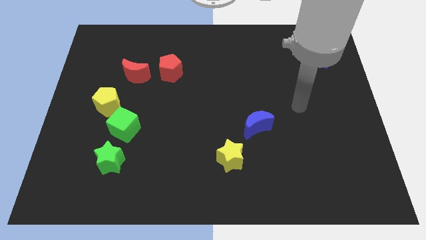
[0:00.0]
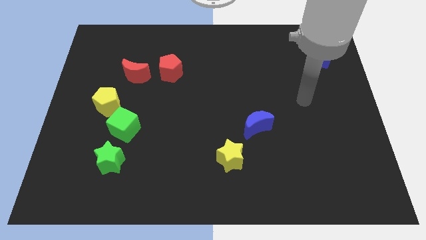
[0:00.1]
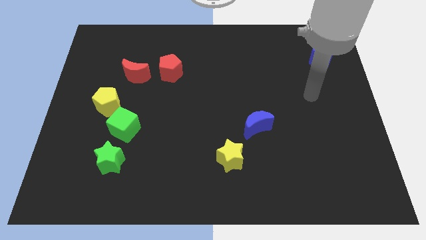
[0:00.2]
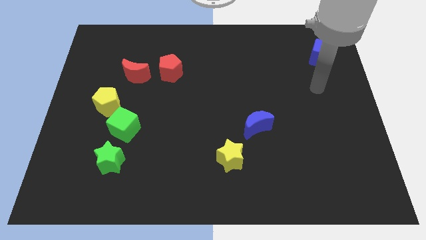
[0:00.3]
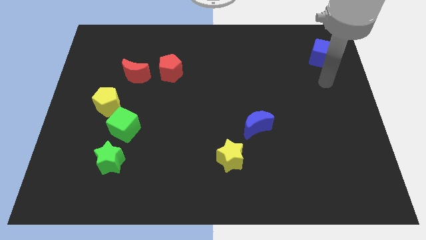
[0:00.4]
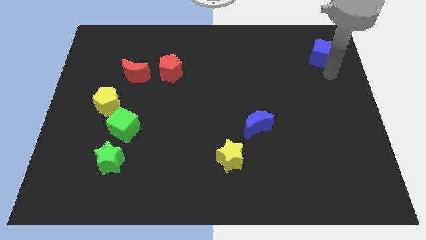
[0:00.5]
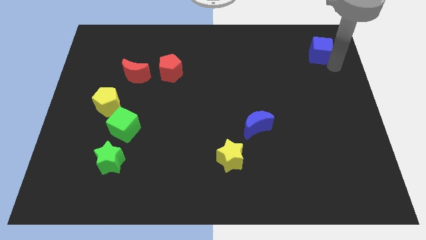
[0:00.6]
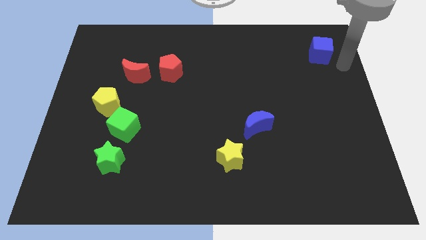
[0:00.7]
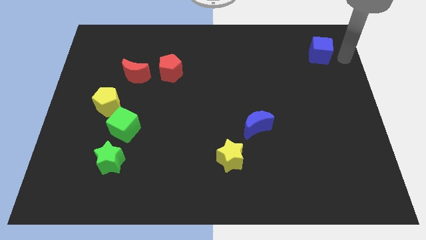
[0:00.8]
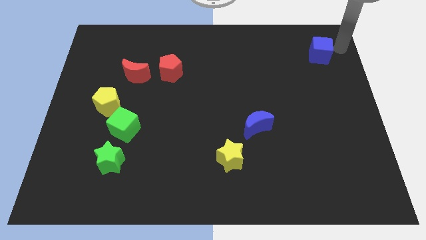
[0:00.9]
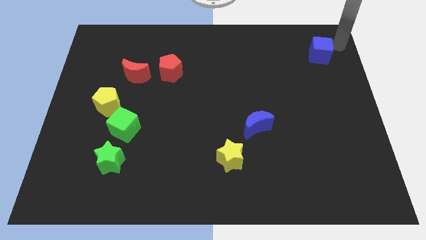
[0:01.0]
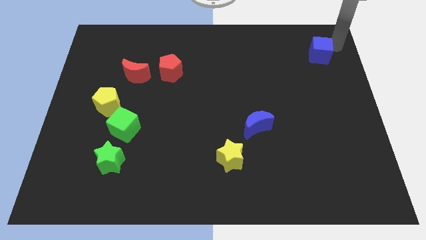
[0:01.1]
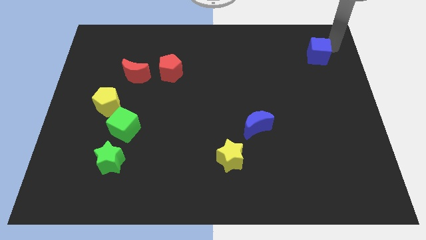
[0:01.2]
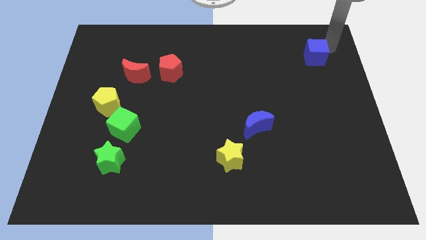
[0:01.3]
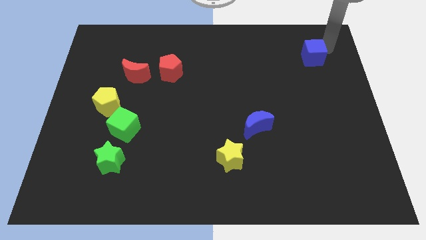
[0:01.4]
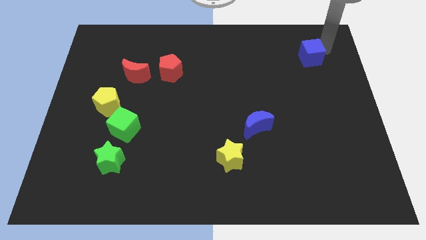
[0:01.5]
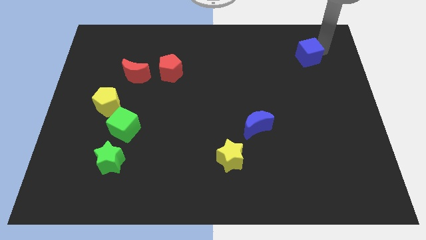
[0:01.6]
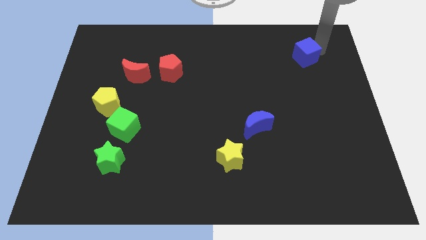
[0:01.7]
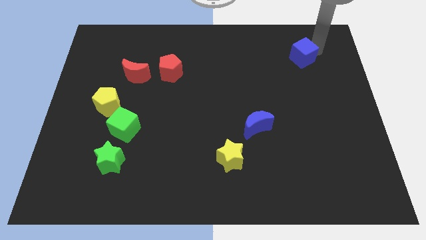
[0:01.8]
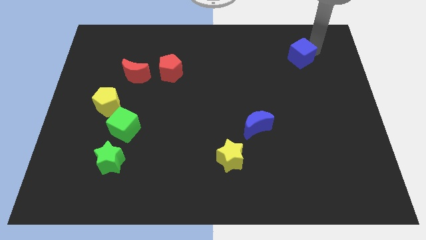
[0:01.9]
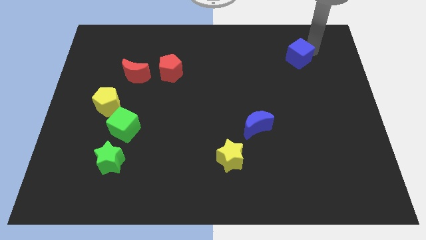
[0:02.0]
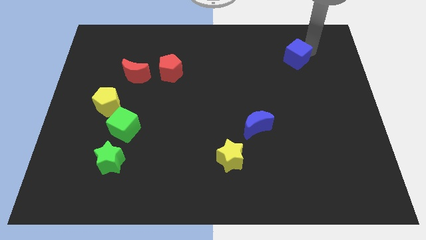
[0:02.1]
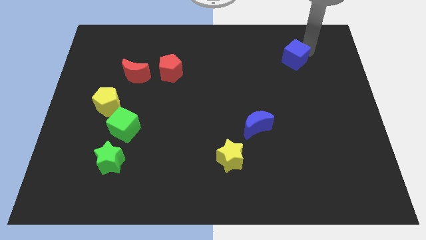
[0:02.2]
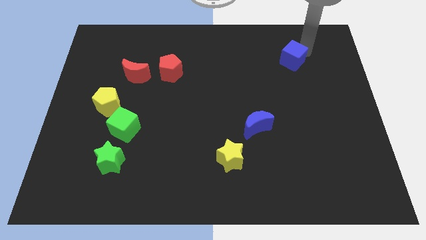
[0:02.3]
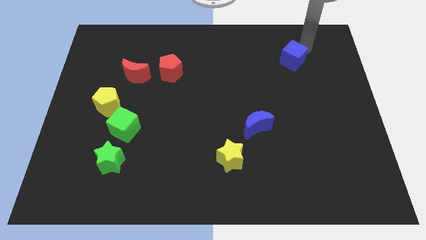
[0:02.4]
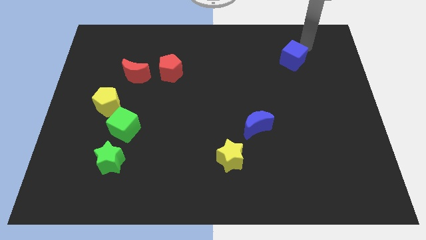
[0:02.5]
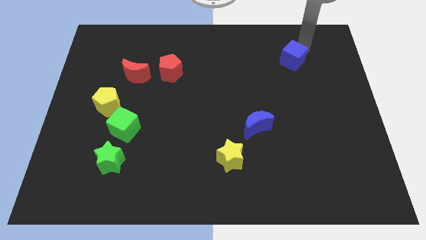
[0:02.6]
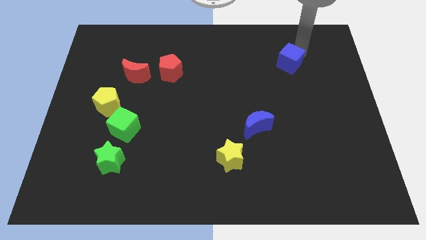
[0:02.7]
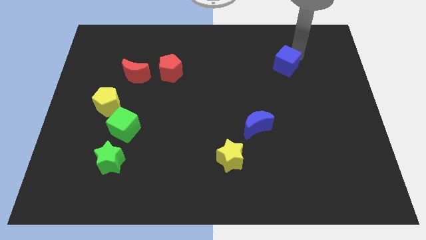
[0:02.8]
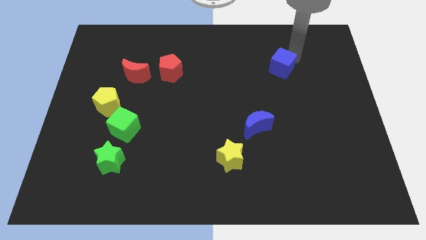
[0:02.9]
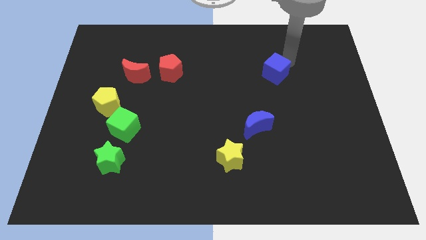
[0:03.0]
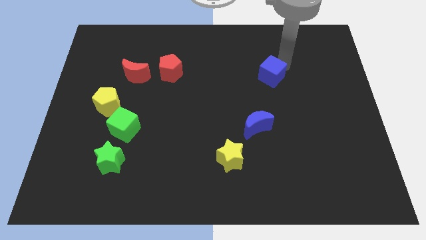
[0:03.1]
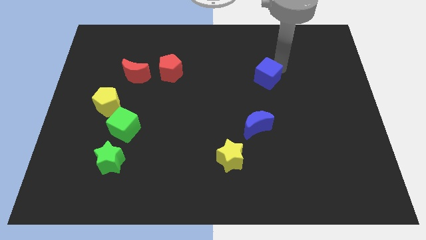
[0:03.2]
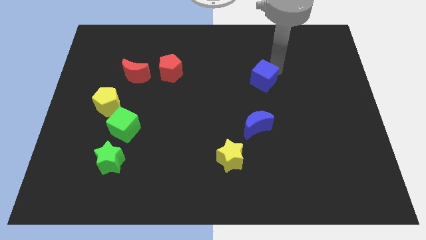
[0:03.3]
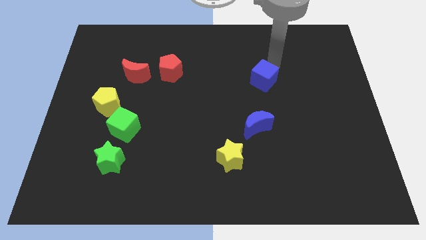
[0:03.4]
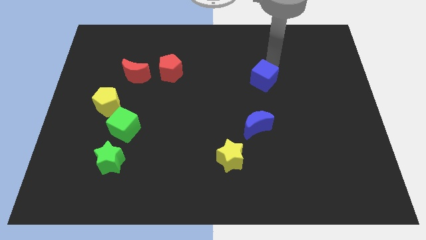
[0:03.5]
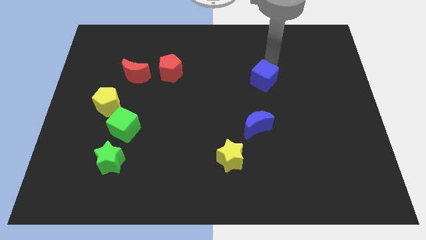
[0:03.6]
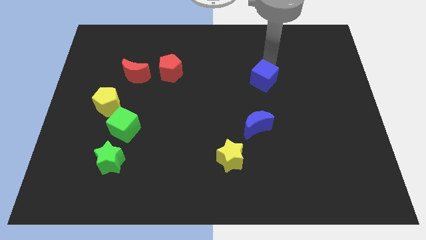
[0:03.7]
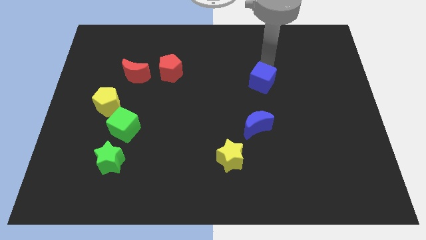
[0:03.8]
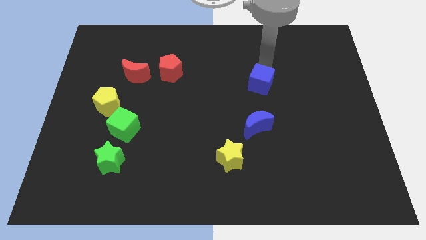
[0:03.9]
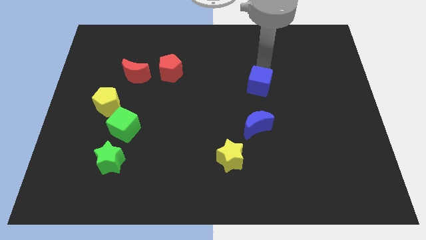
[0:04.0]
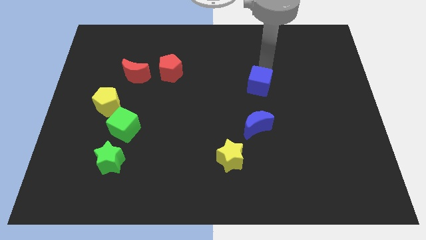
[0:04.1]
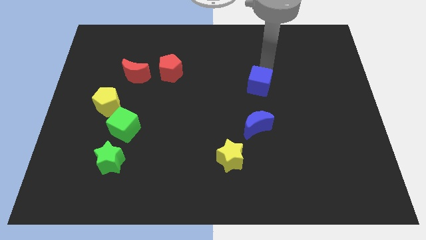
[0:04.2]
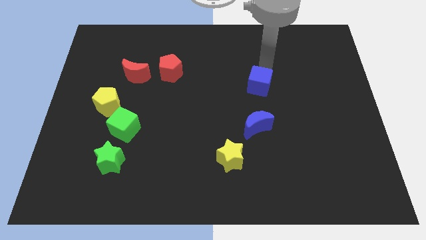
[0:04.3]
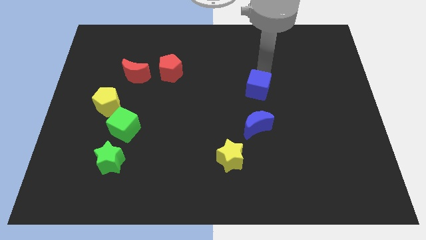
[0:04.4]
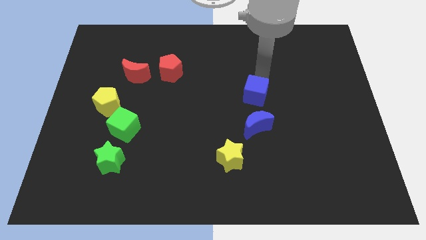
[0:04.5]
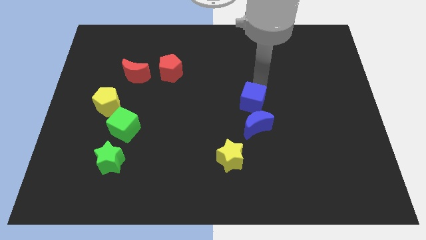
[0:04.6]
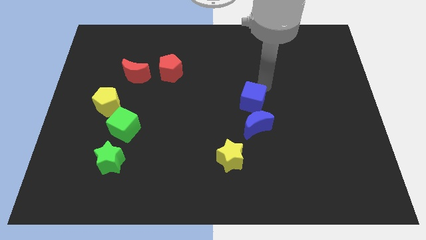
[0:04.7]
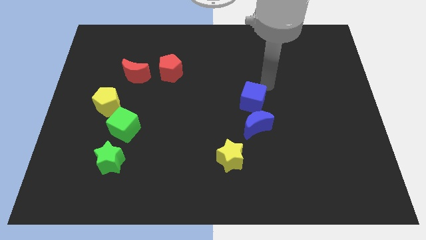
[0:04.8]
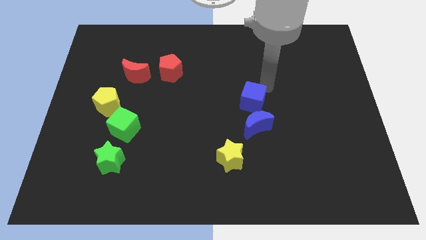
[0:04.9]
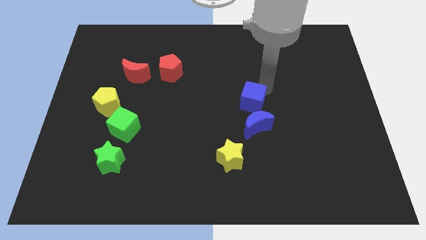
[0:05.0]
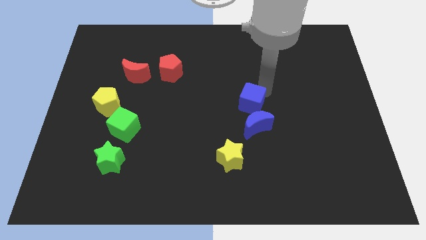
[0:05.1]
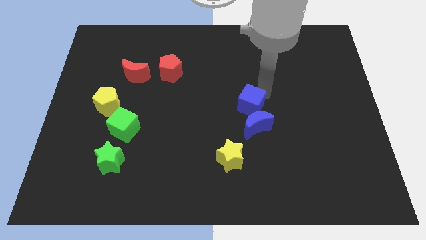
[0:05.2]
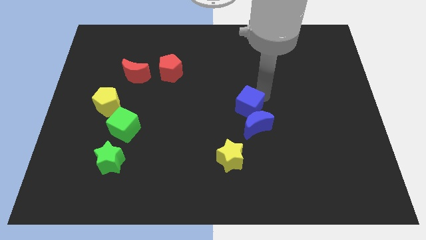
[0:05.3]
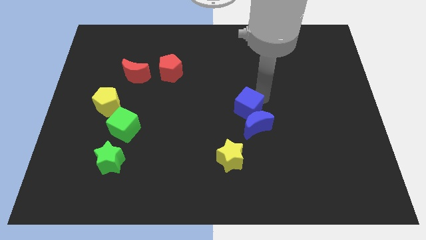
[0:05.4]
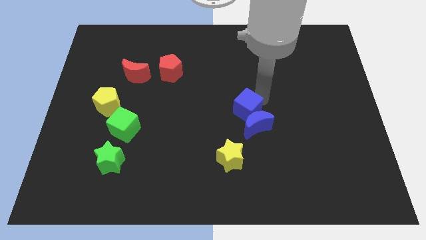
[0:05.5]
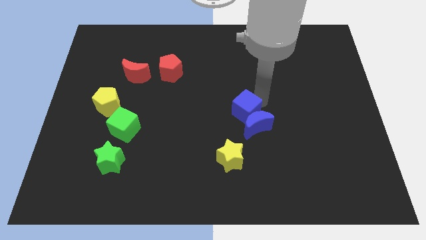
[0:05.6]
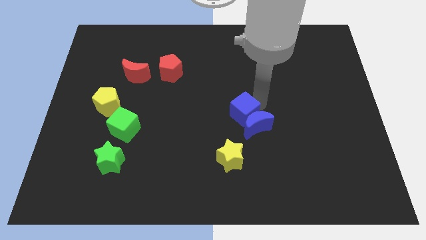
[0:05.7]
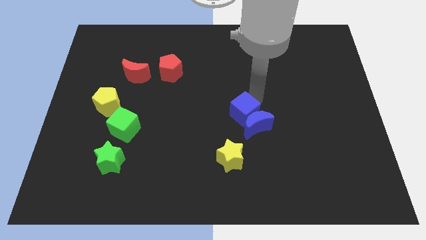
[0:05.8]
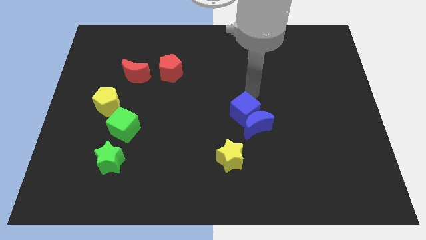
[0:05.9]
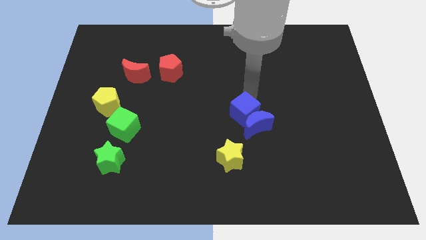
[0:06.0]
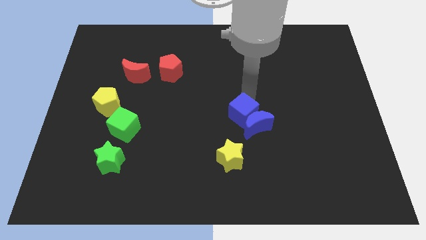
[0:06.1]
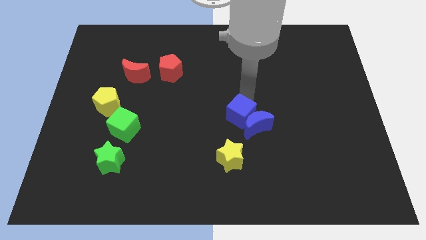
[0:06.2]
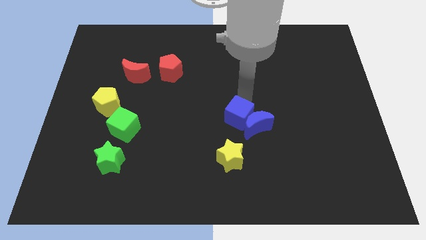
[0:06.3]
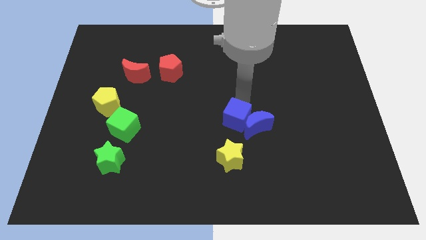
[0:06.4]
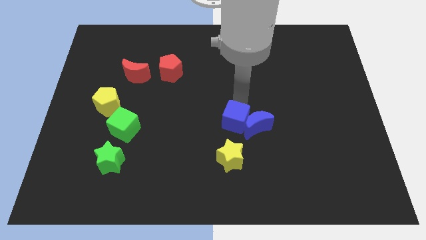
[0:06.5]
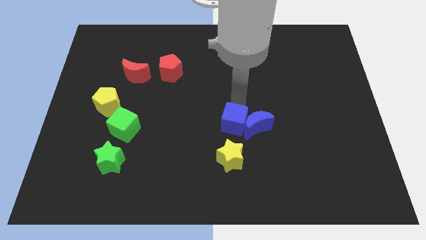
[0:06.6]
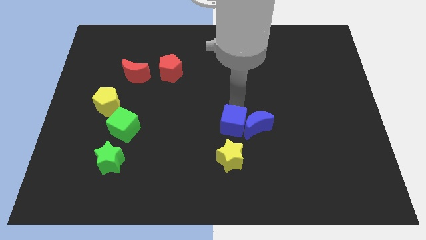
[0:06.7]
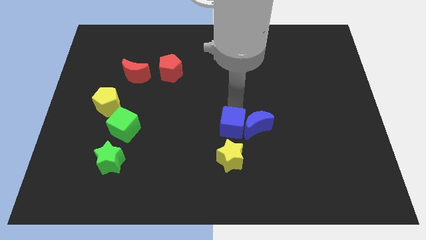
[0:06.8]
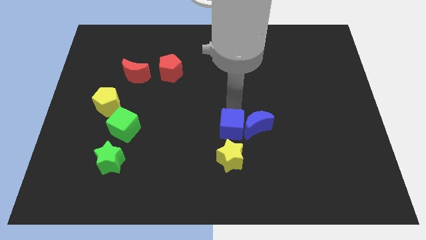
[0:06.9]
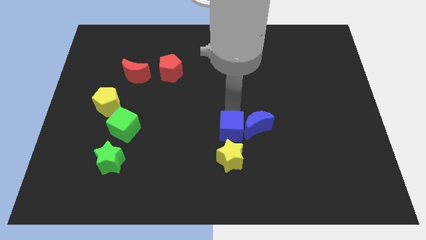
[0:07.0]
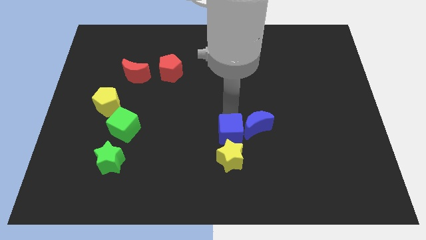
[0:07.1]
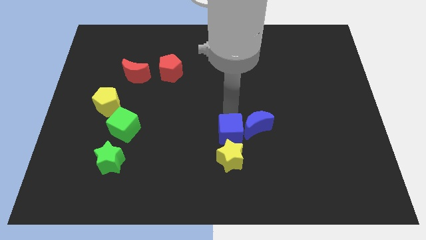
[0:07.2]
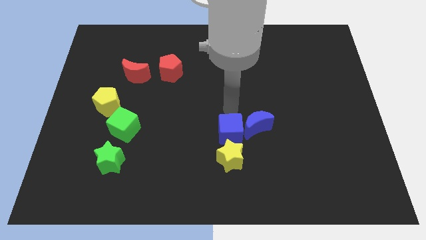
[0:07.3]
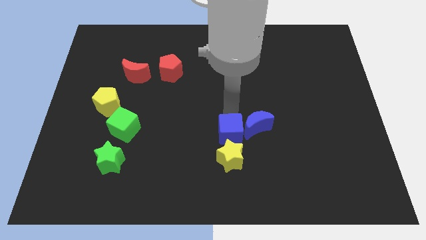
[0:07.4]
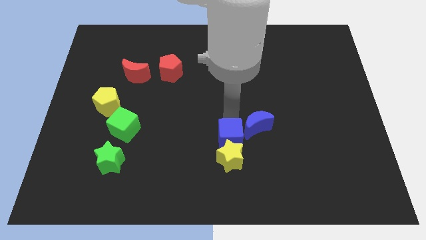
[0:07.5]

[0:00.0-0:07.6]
push the blue cube next to the yellow star
